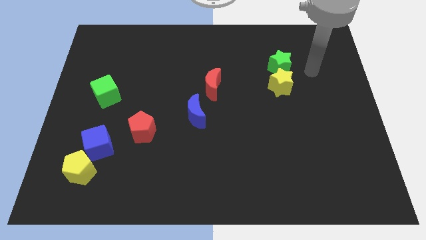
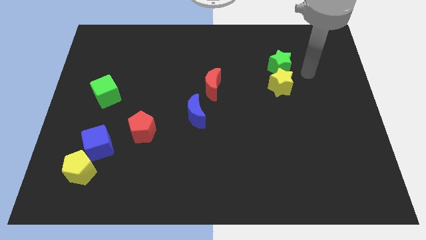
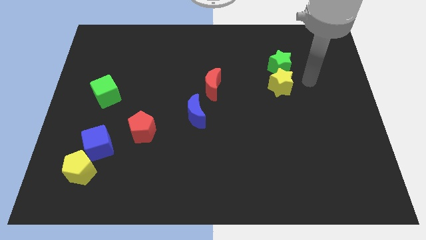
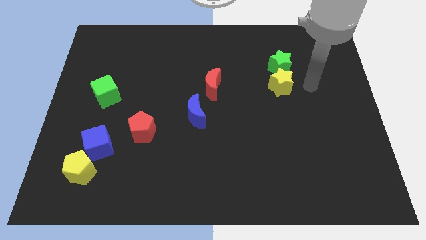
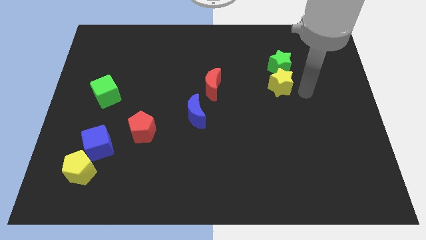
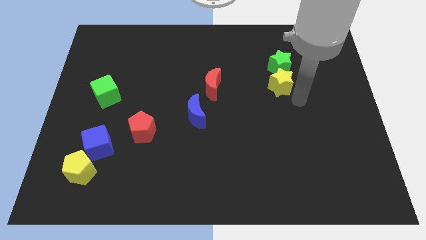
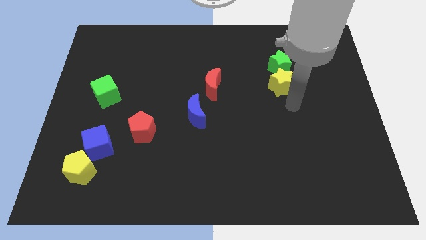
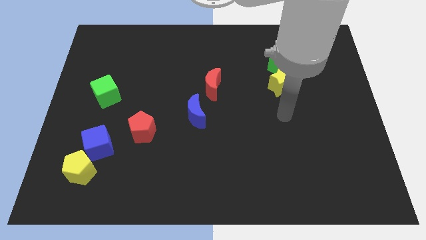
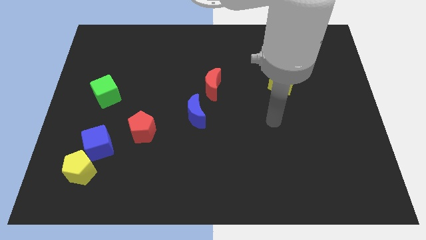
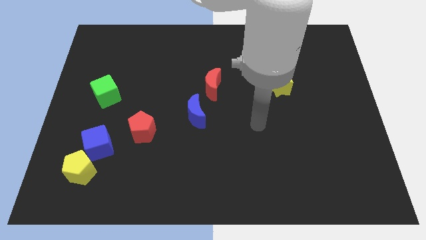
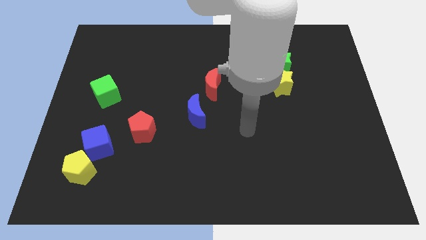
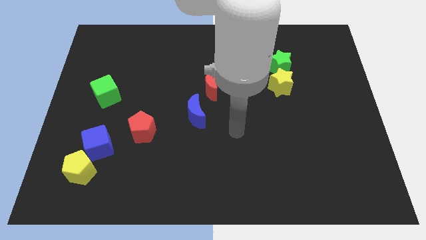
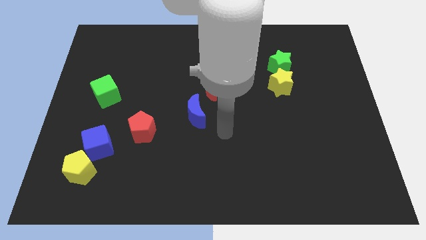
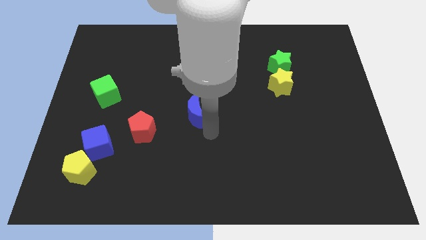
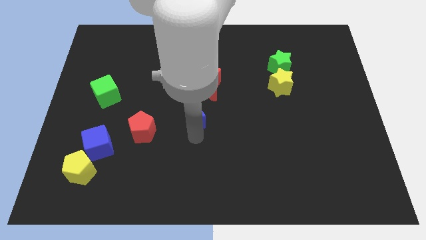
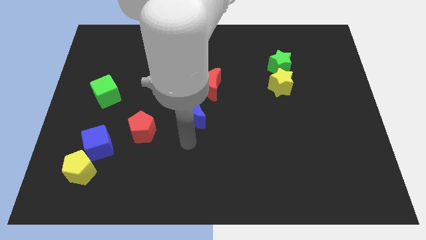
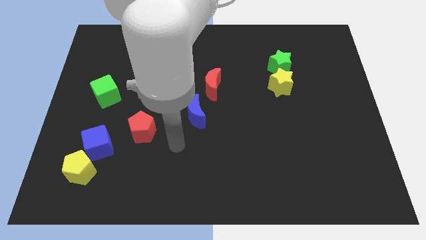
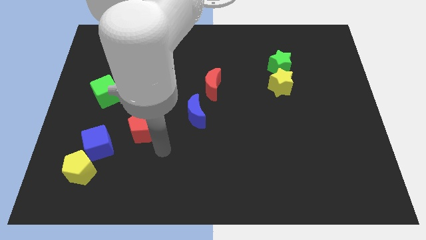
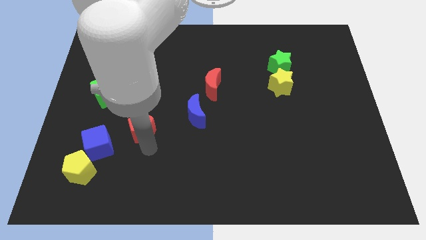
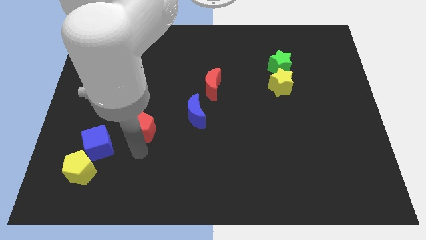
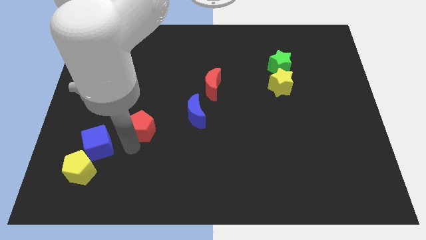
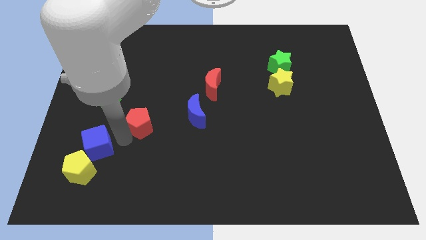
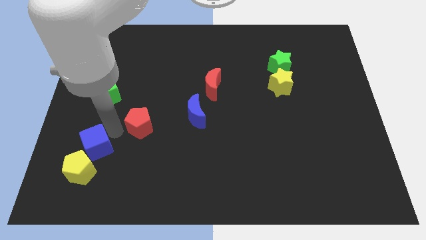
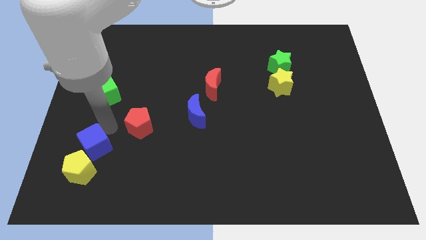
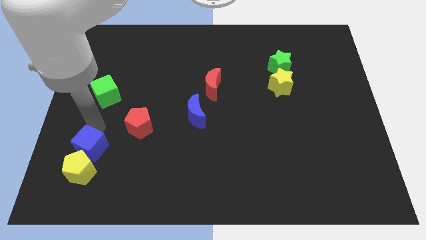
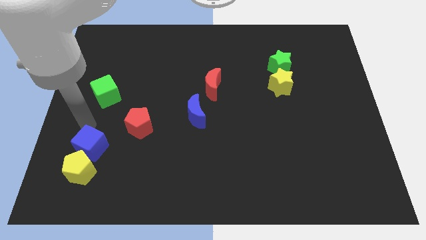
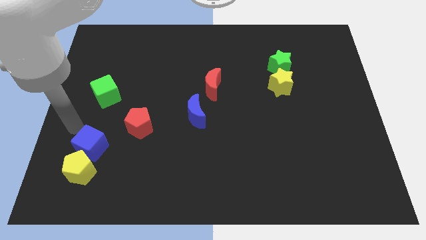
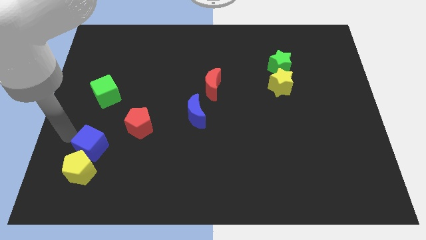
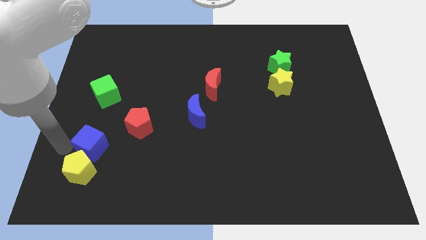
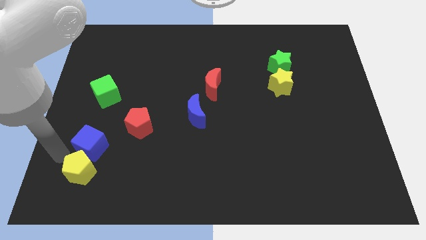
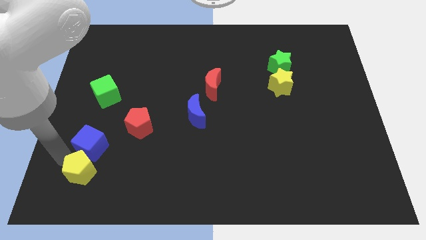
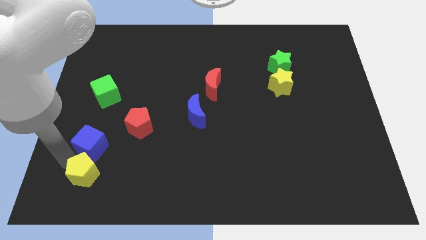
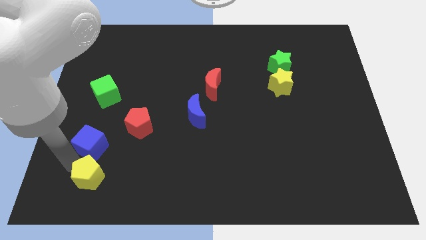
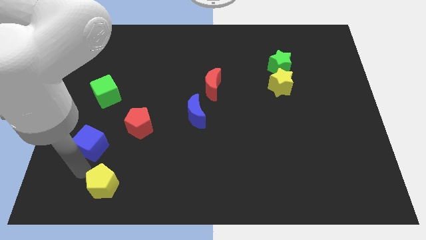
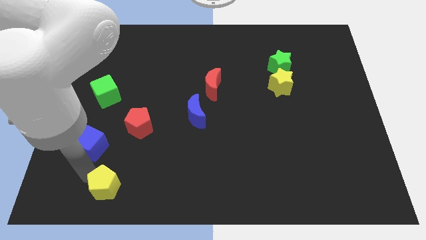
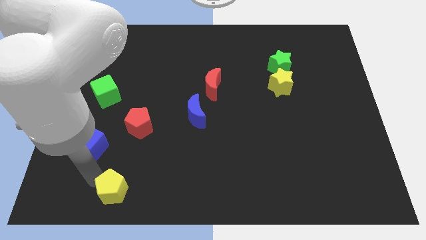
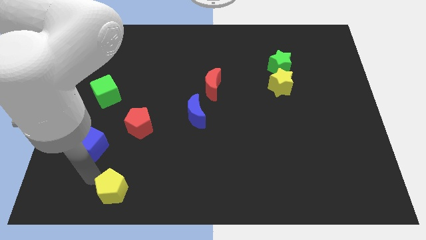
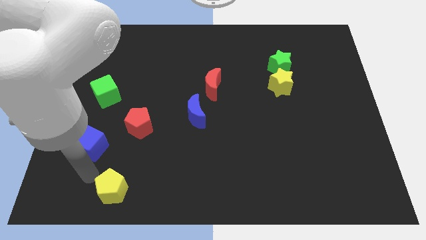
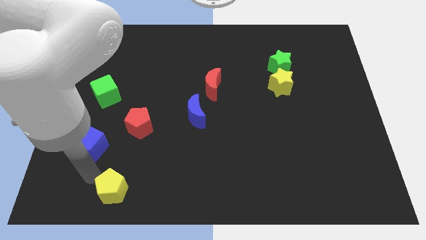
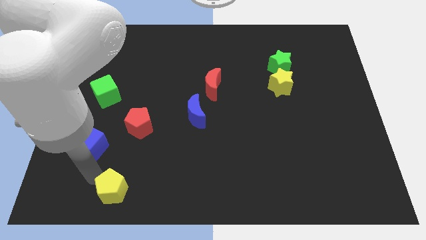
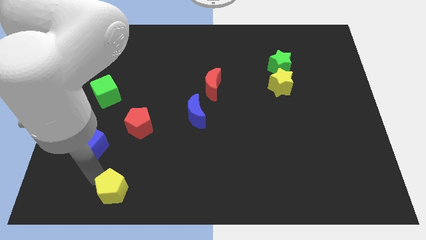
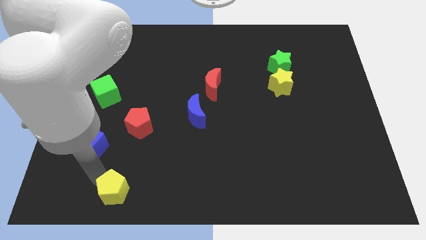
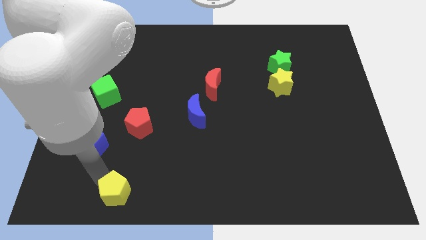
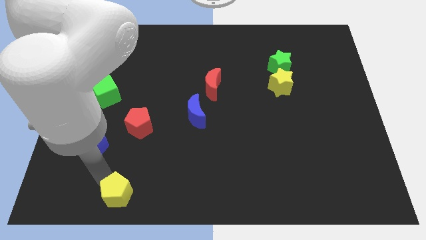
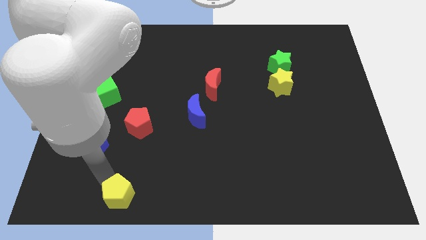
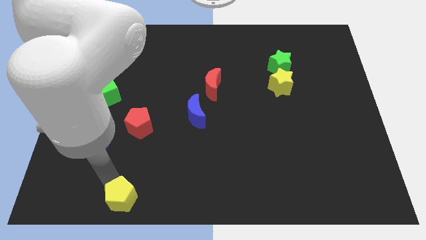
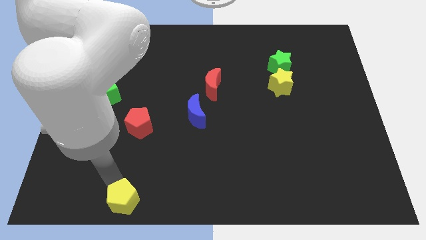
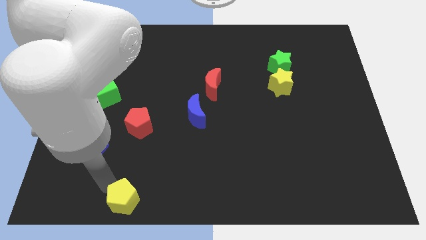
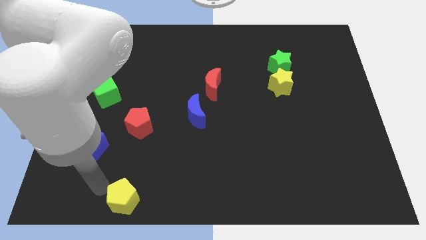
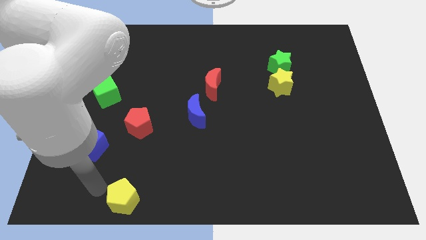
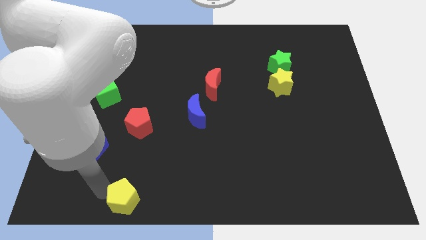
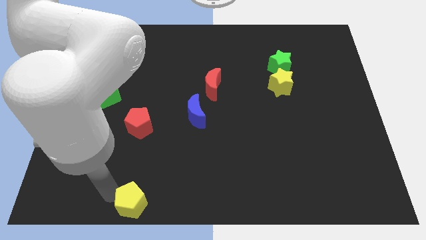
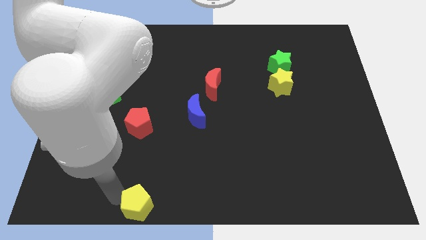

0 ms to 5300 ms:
move the yellow pentagon to the bottom
